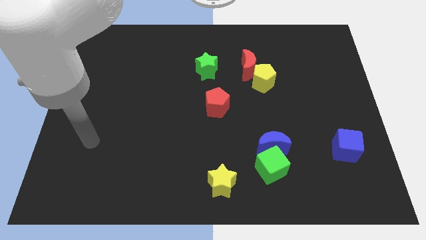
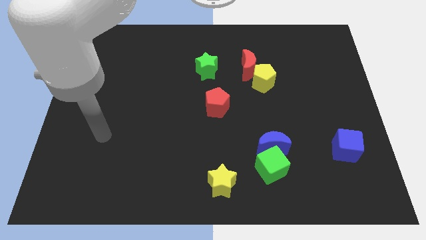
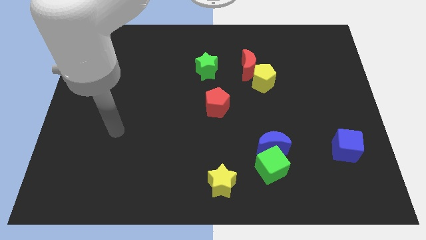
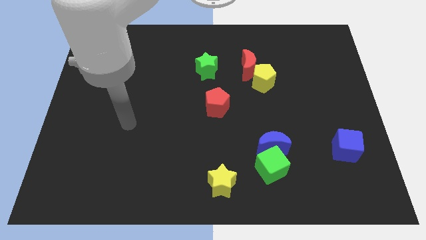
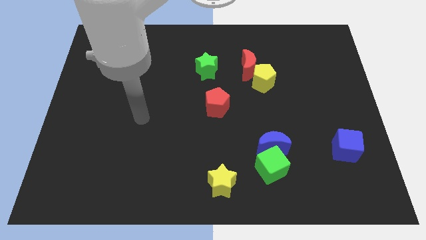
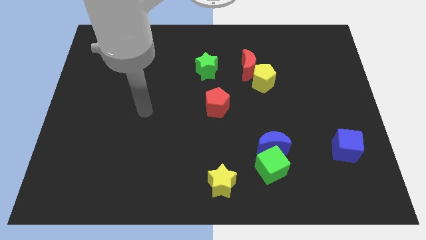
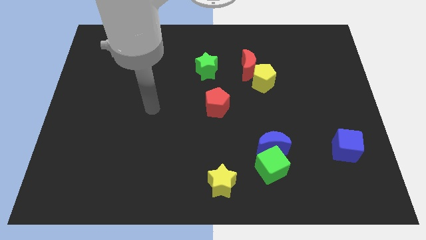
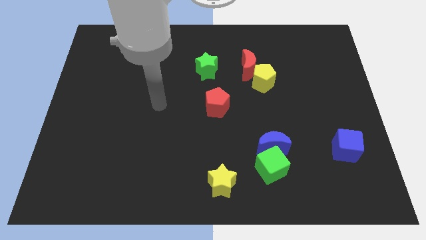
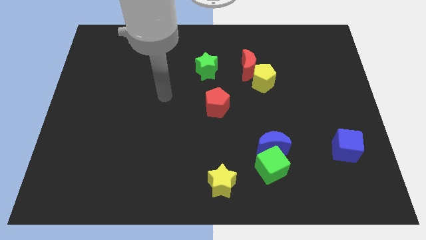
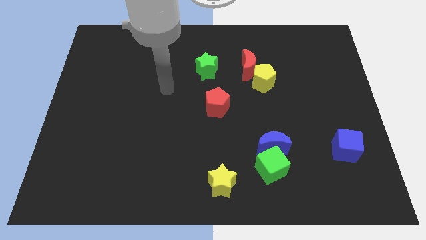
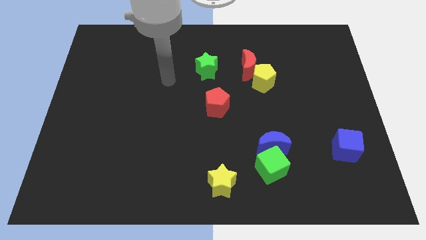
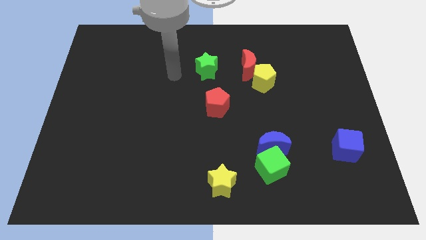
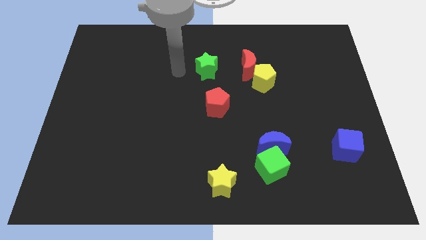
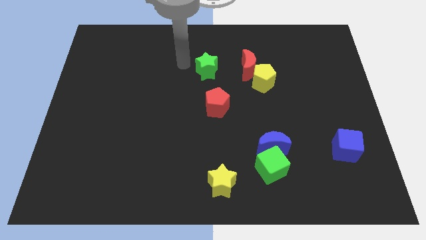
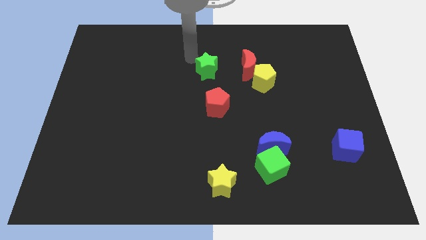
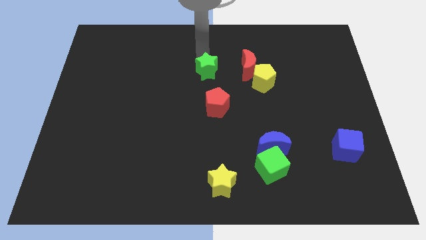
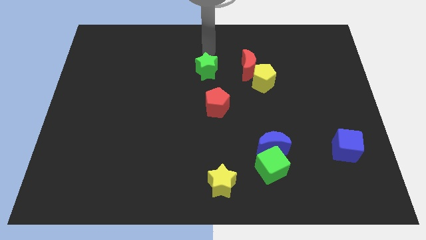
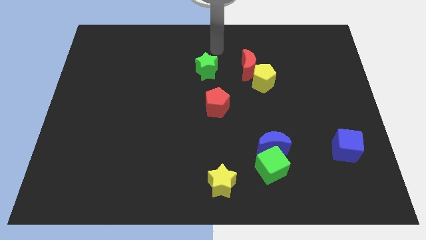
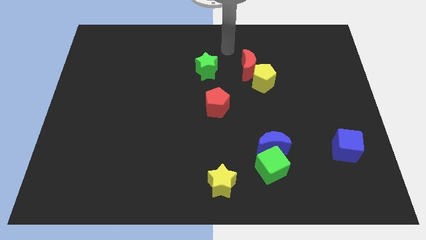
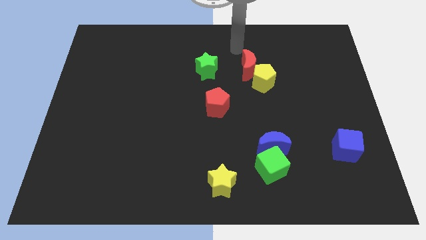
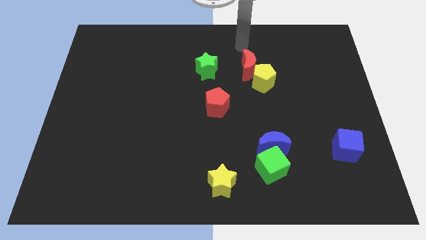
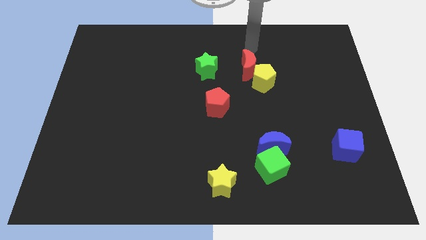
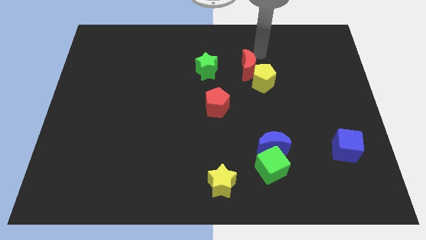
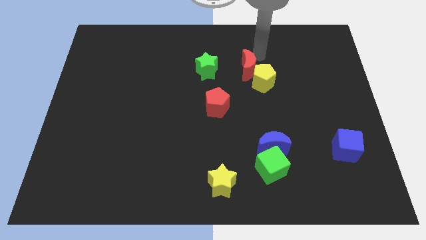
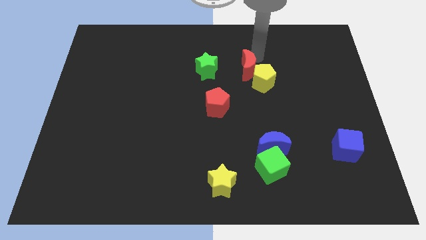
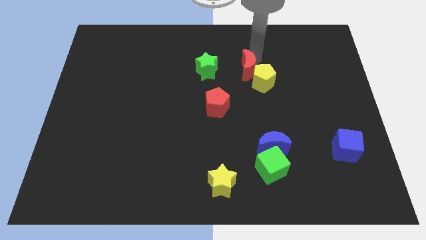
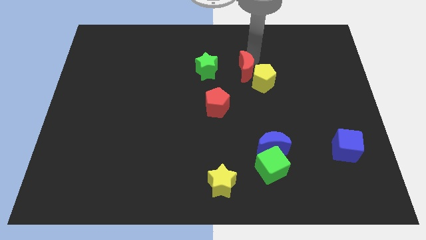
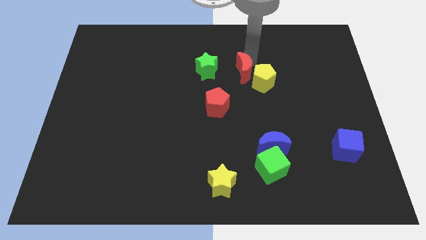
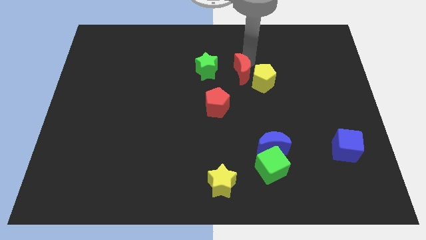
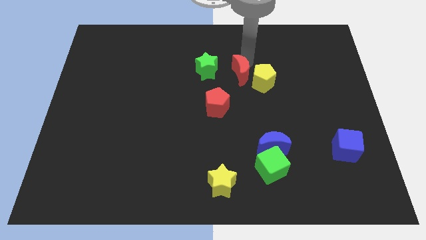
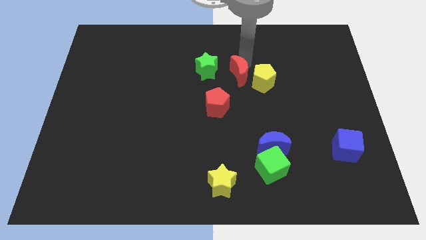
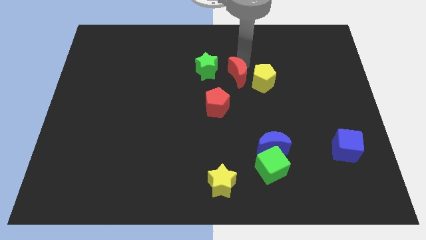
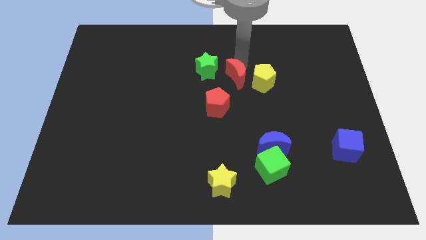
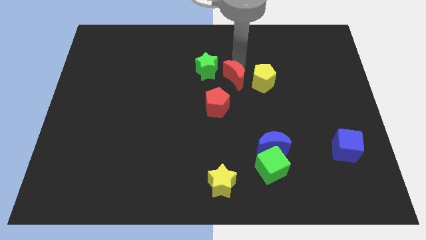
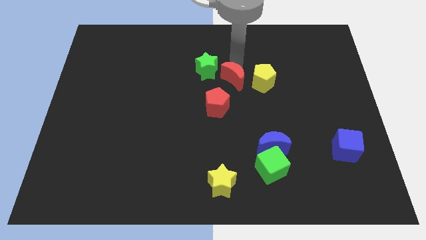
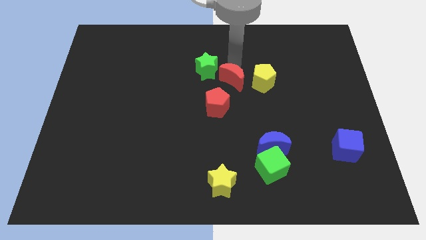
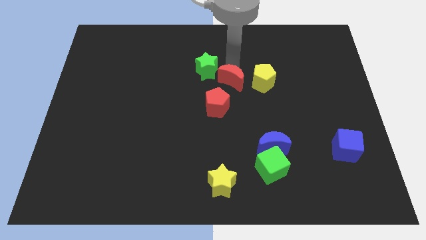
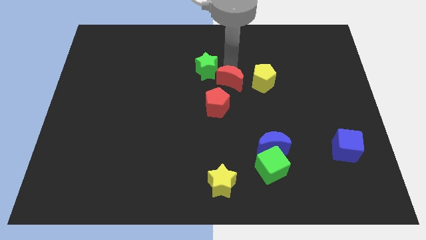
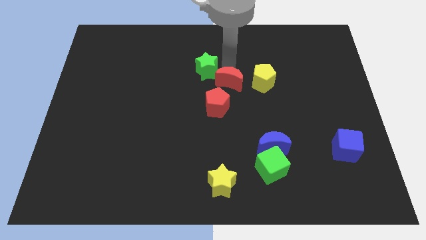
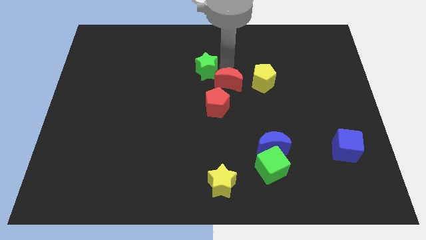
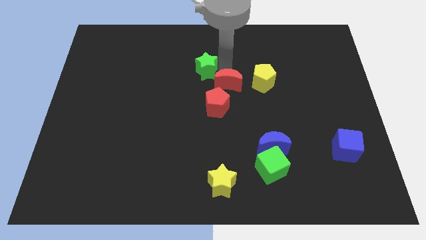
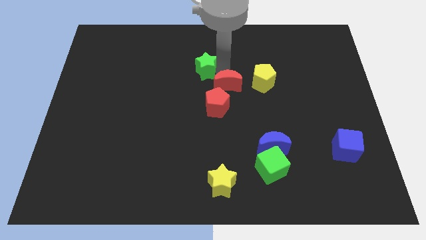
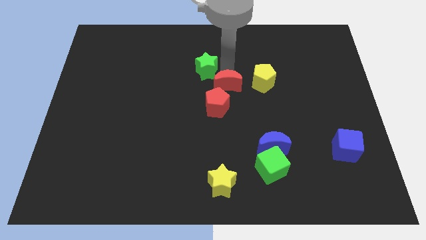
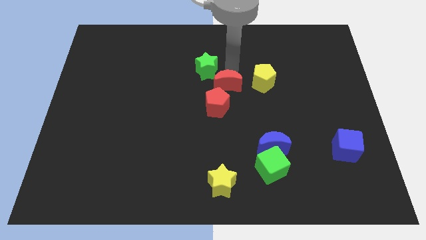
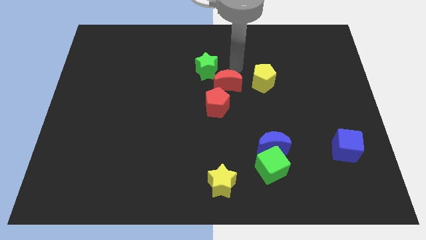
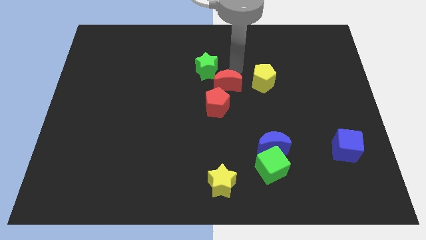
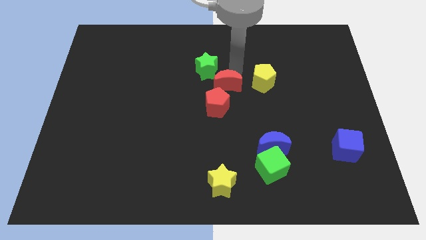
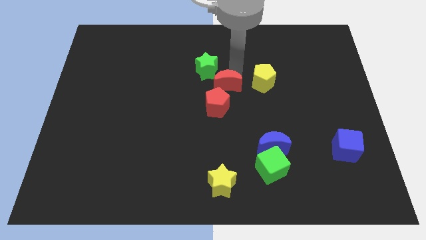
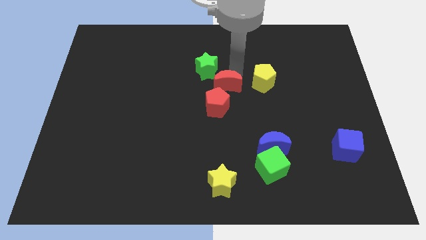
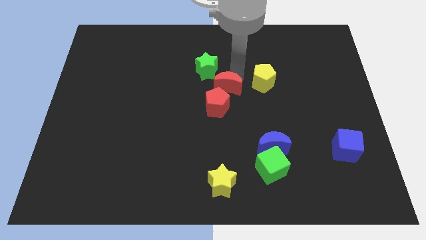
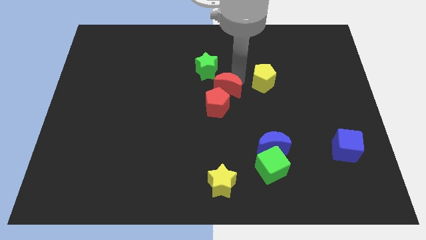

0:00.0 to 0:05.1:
move the red moon towards the red pentagon

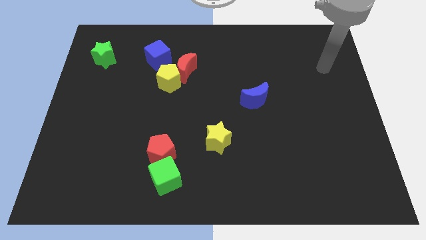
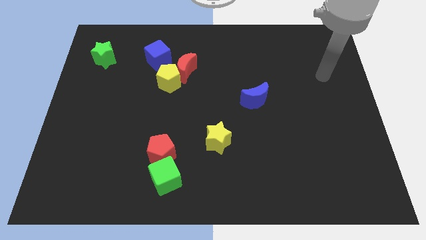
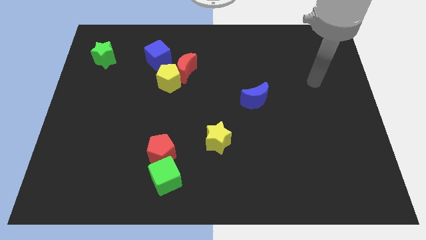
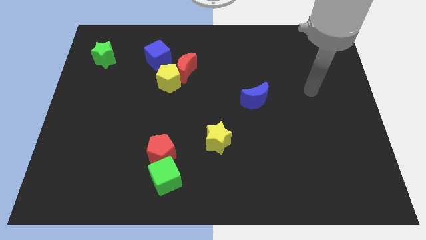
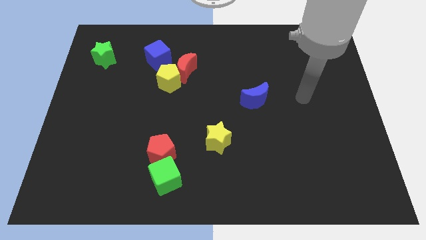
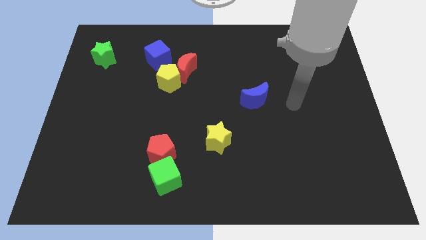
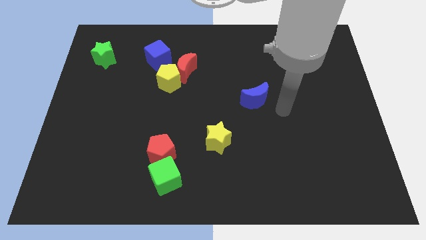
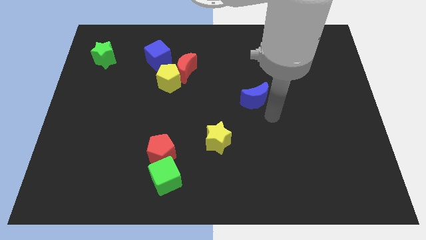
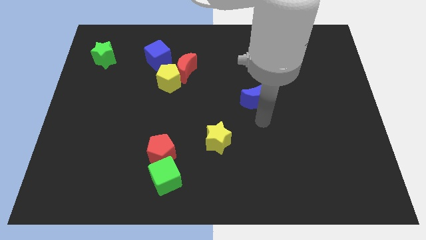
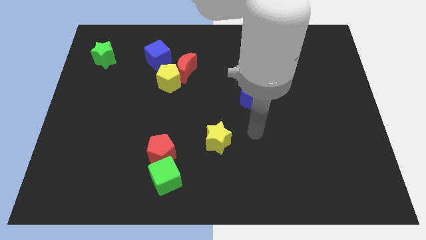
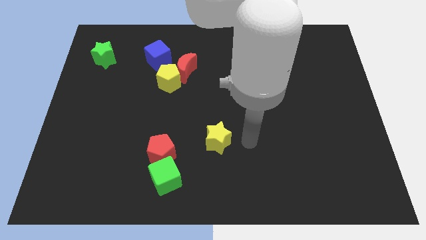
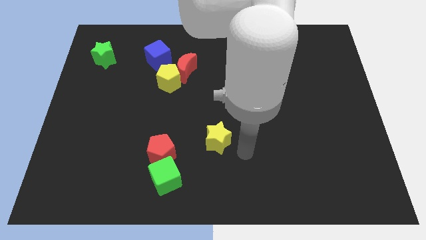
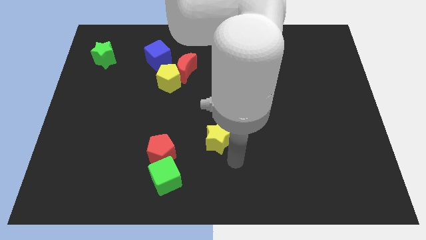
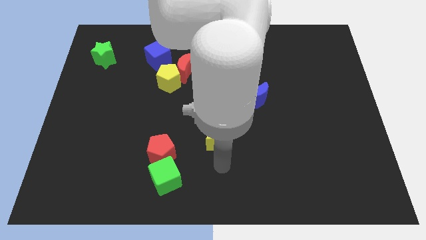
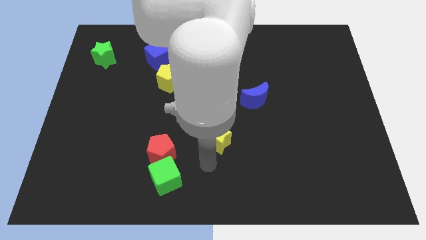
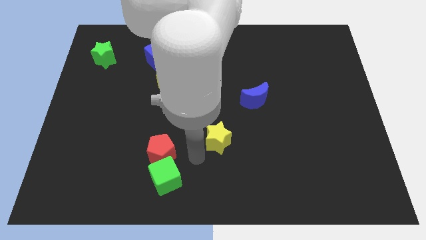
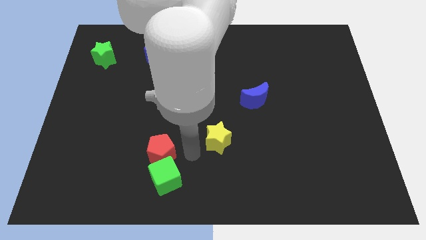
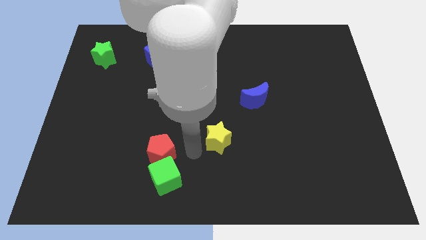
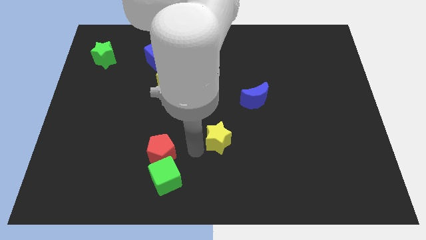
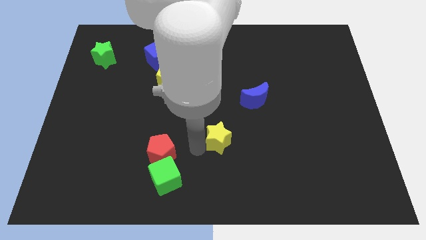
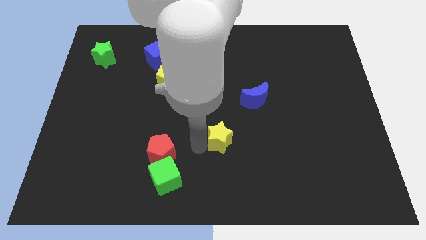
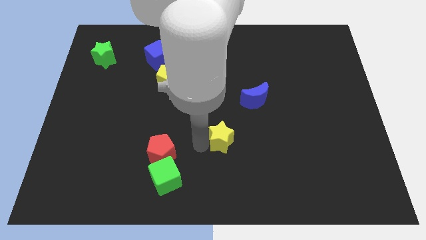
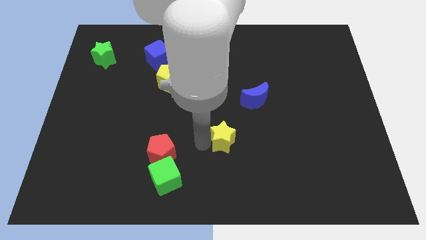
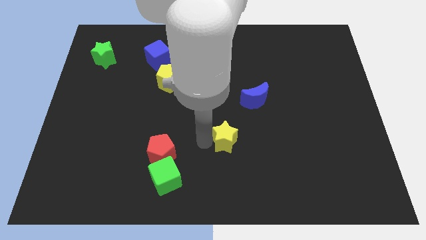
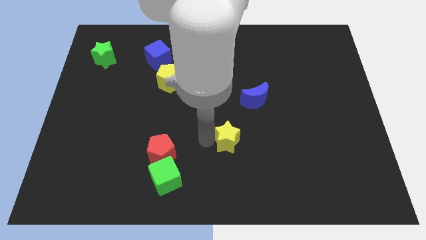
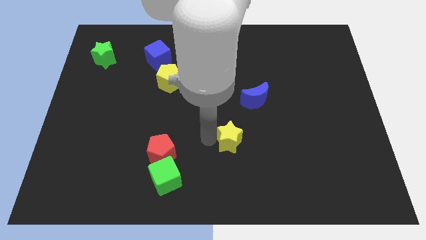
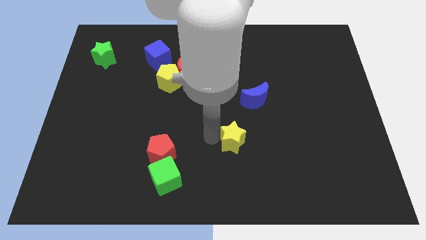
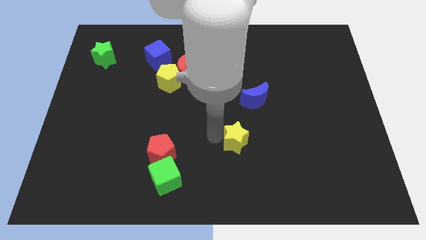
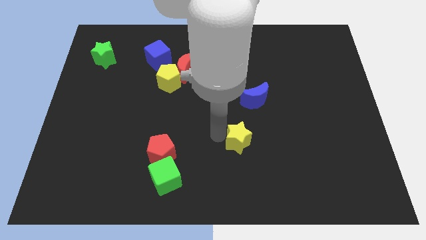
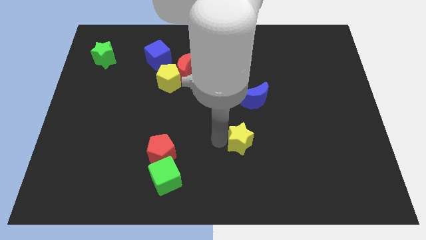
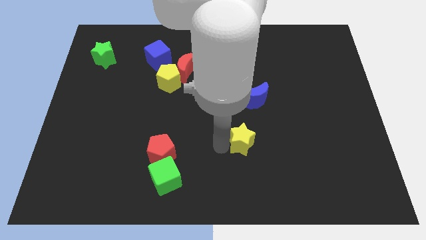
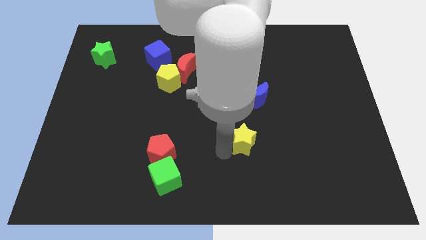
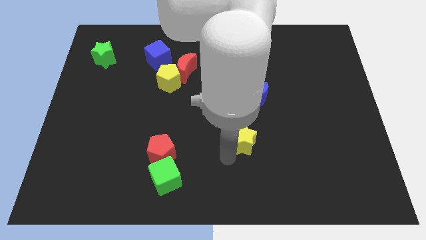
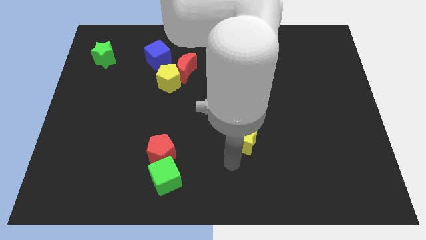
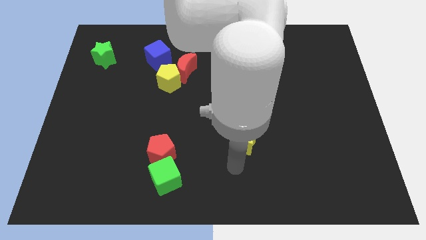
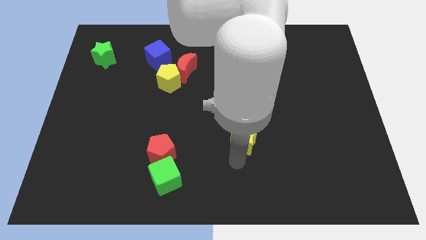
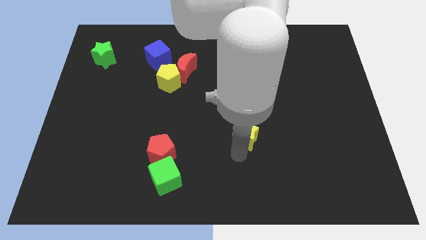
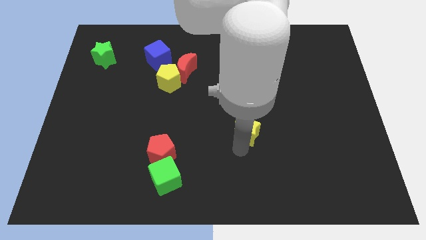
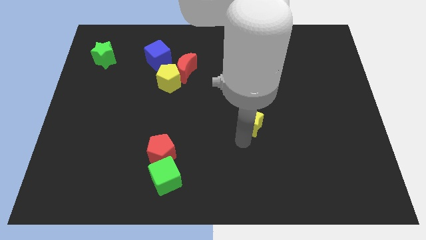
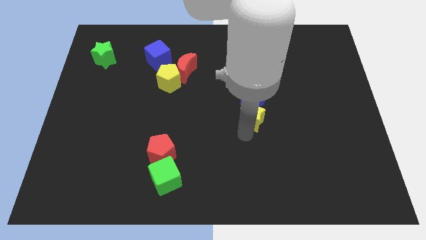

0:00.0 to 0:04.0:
slide the yellow star towards the blue moon
